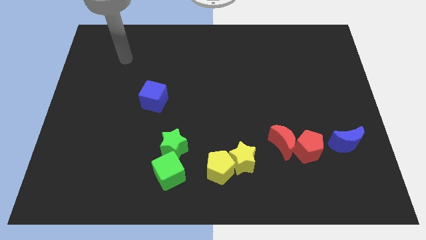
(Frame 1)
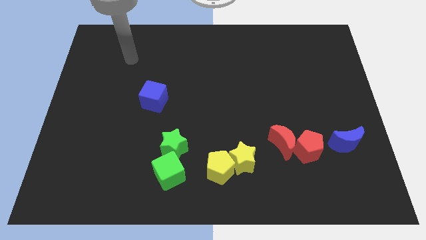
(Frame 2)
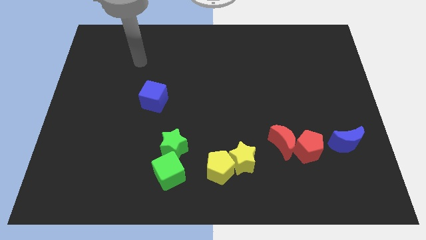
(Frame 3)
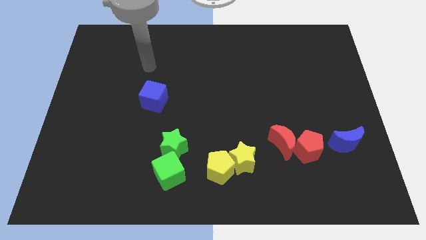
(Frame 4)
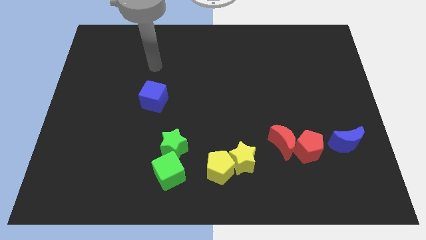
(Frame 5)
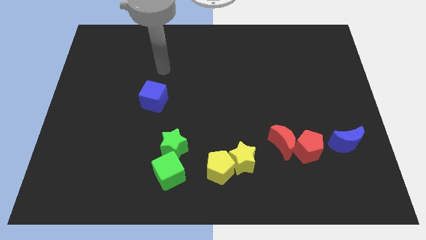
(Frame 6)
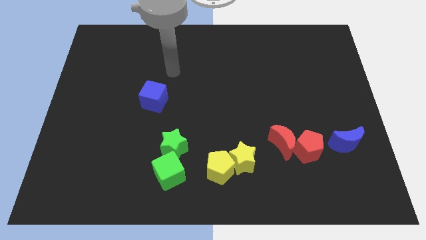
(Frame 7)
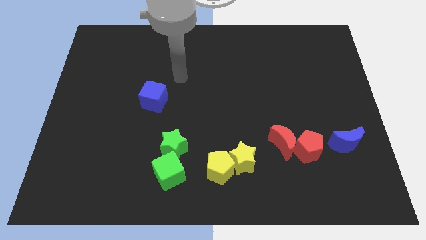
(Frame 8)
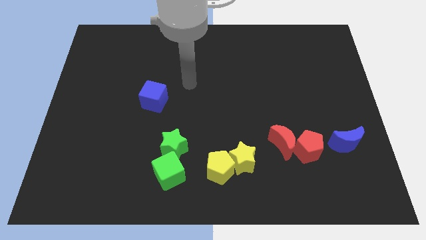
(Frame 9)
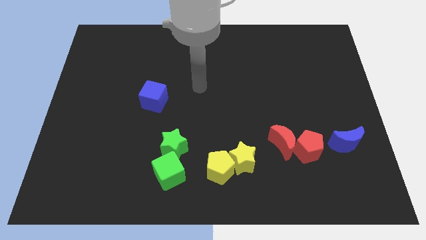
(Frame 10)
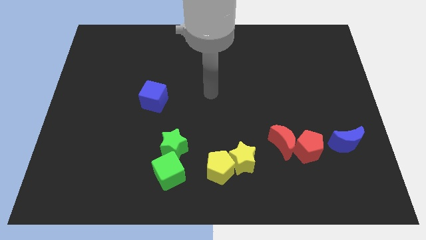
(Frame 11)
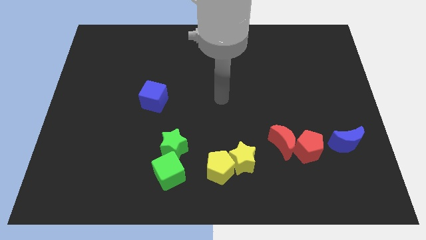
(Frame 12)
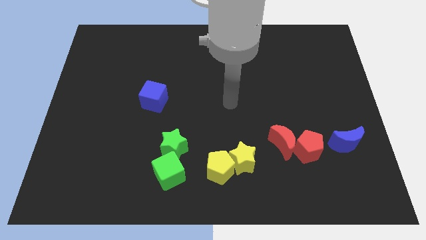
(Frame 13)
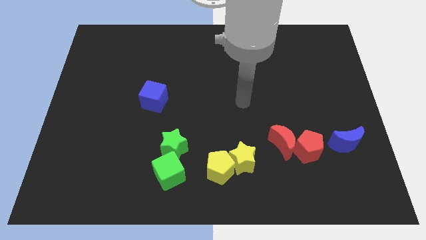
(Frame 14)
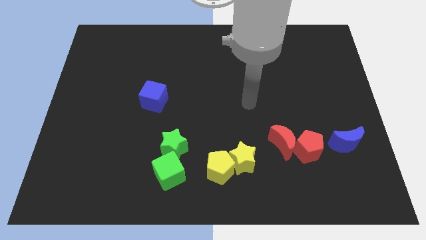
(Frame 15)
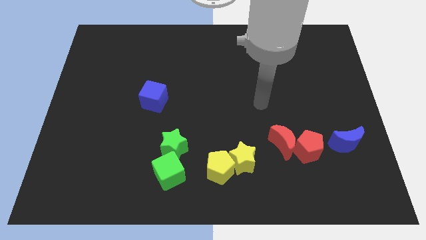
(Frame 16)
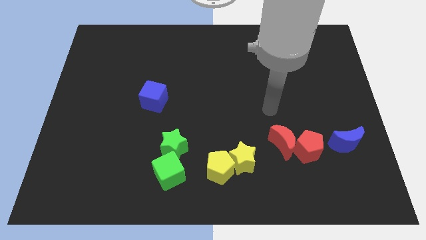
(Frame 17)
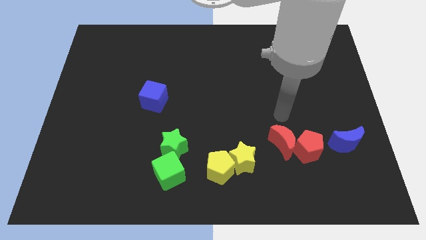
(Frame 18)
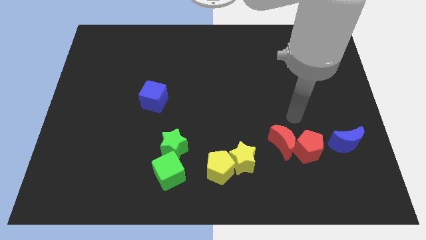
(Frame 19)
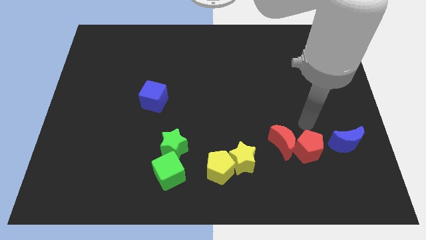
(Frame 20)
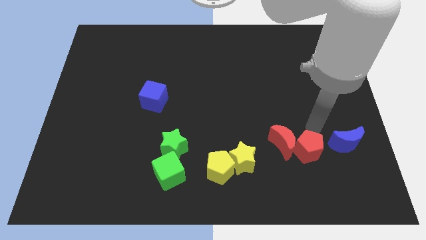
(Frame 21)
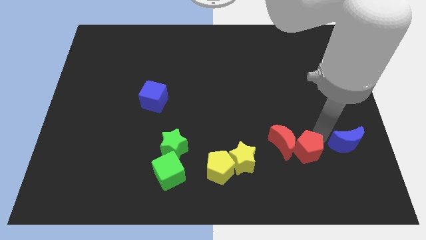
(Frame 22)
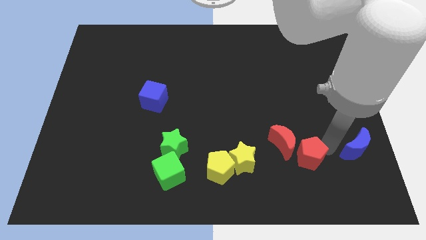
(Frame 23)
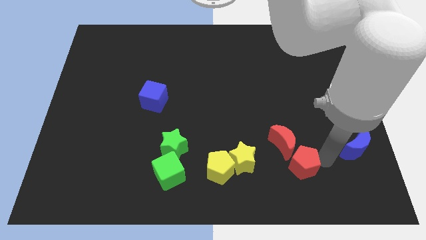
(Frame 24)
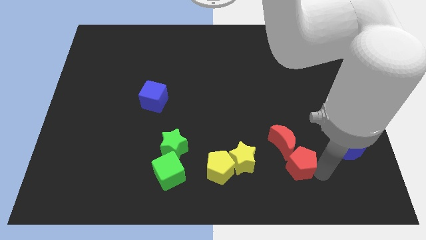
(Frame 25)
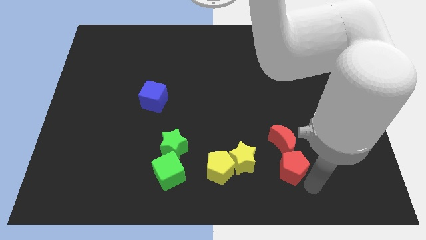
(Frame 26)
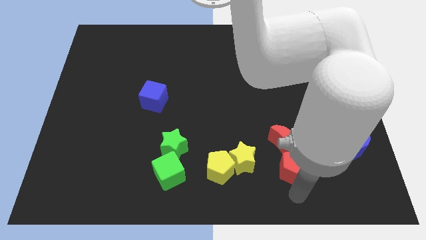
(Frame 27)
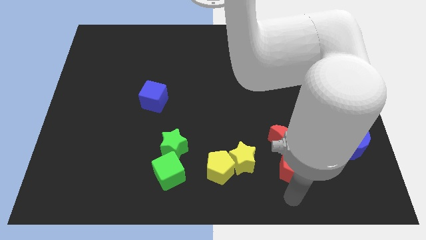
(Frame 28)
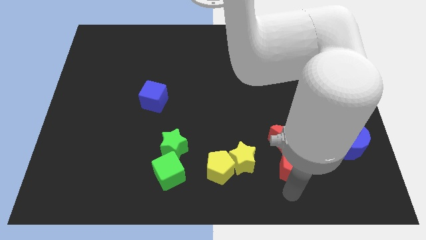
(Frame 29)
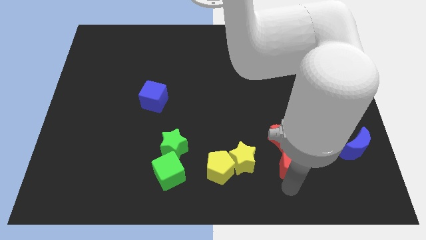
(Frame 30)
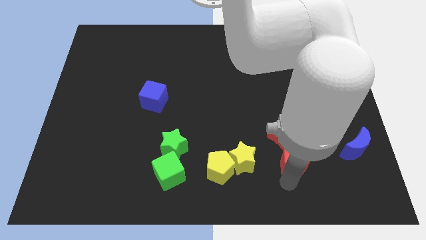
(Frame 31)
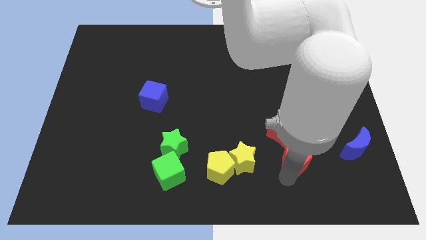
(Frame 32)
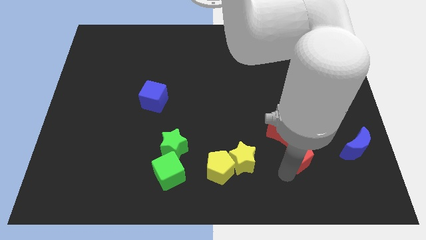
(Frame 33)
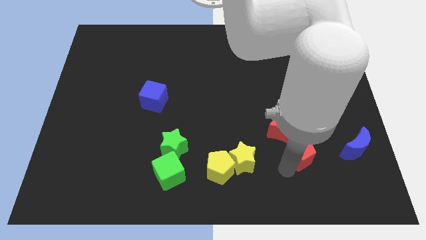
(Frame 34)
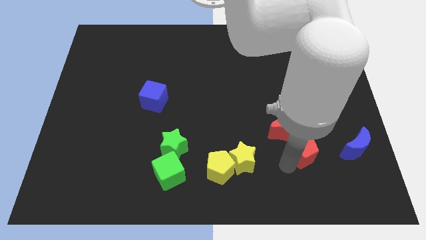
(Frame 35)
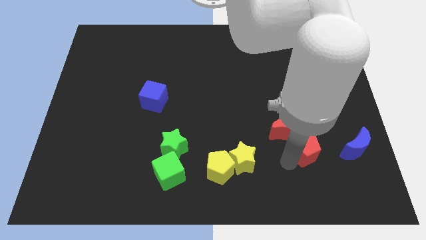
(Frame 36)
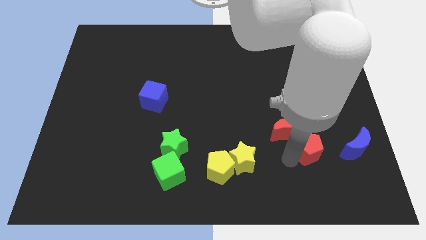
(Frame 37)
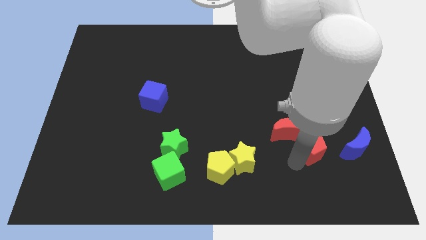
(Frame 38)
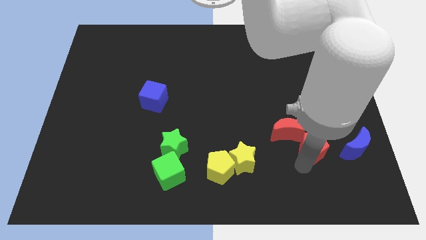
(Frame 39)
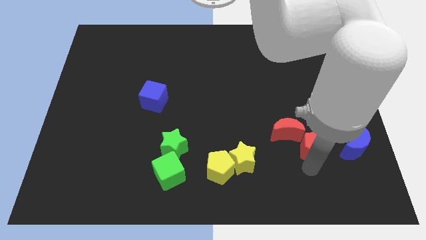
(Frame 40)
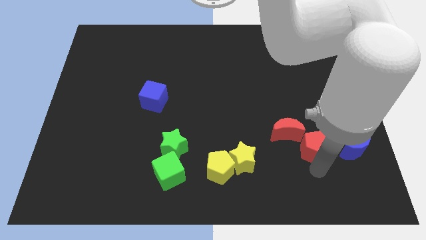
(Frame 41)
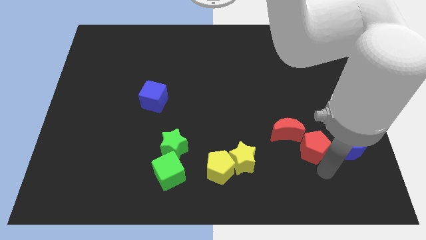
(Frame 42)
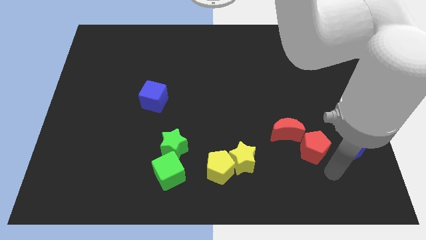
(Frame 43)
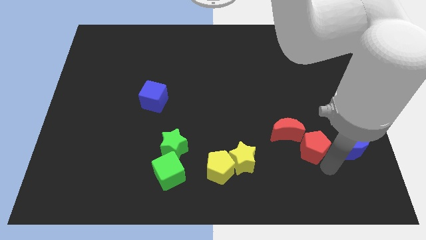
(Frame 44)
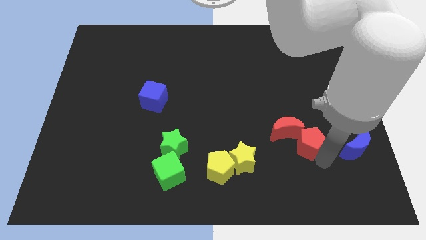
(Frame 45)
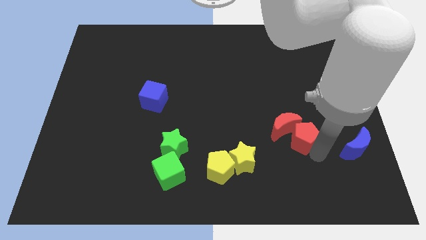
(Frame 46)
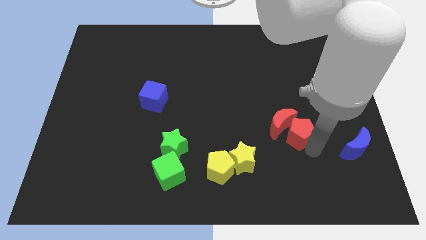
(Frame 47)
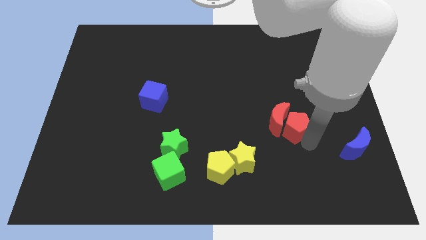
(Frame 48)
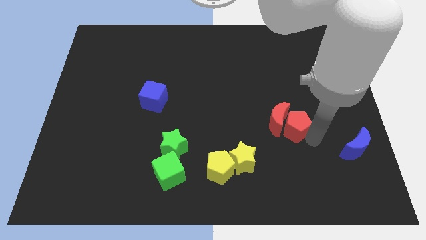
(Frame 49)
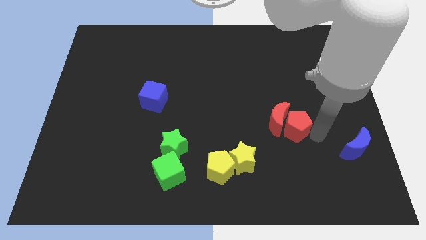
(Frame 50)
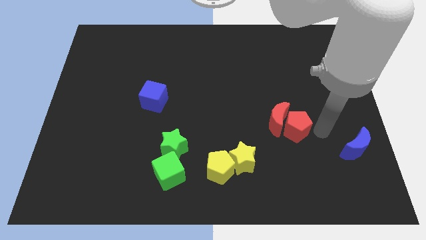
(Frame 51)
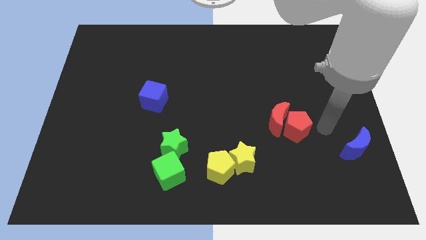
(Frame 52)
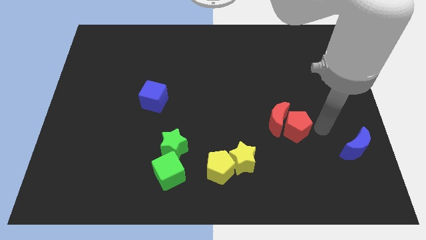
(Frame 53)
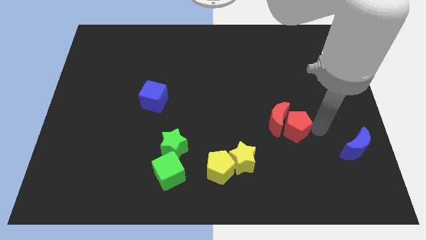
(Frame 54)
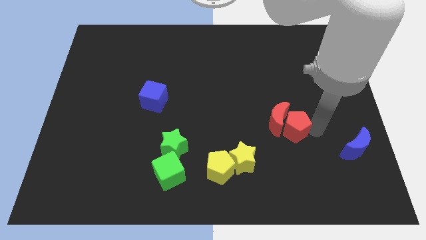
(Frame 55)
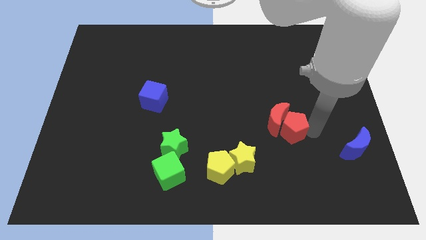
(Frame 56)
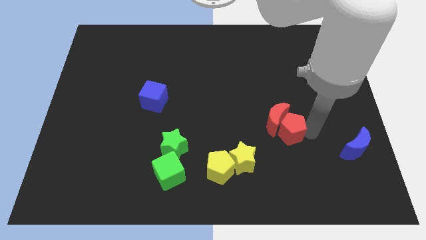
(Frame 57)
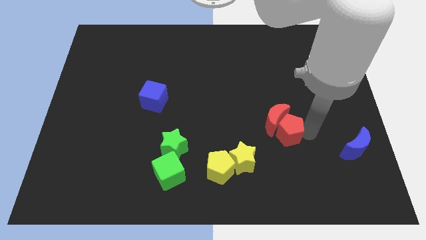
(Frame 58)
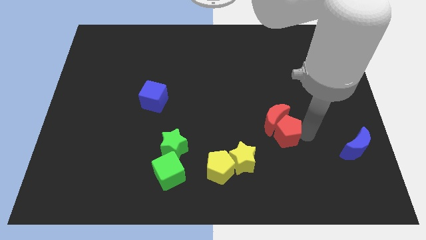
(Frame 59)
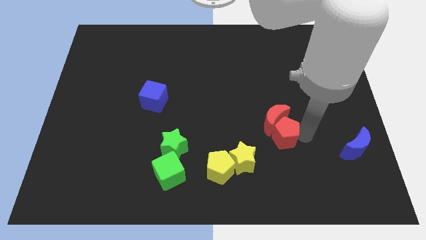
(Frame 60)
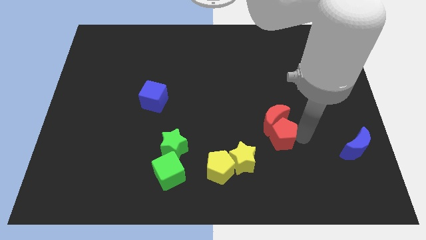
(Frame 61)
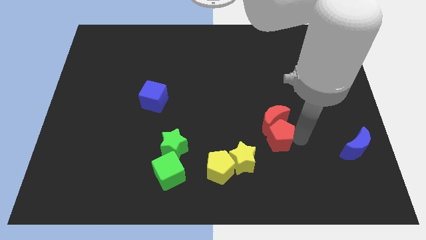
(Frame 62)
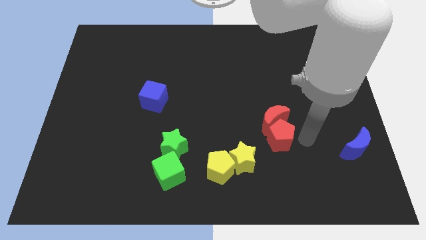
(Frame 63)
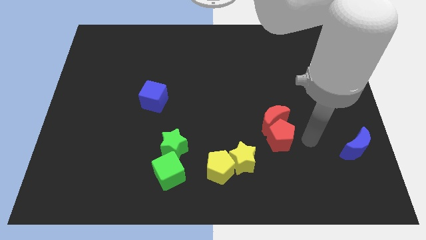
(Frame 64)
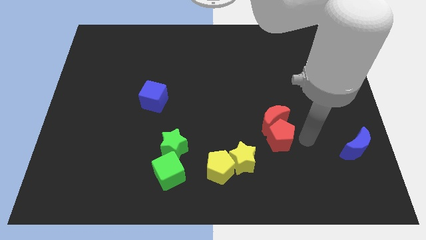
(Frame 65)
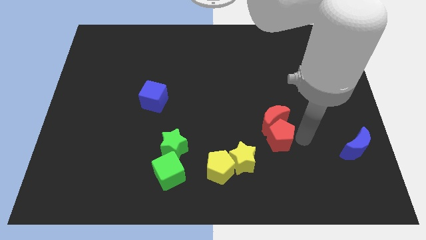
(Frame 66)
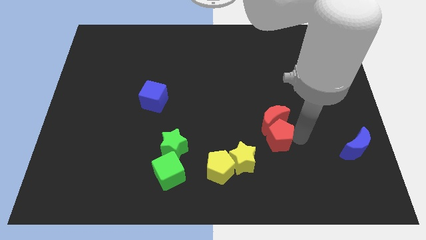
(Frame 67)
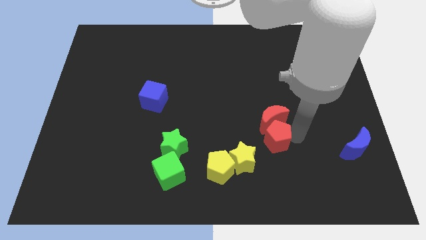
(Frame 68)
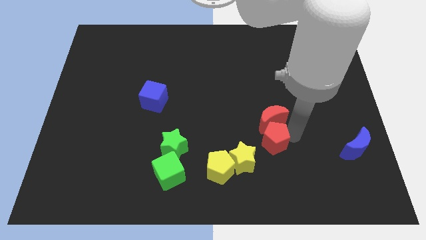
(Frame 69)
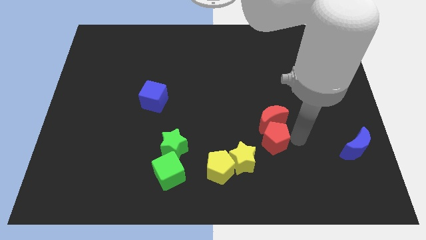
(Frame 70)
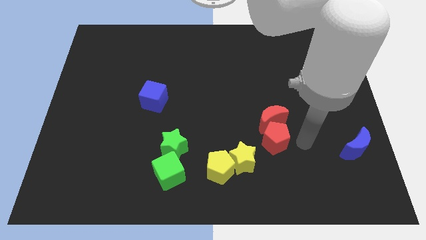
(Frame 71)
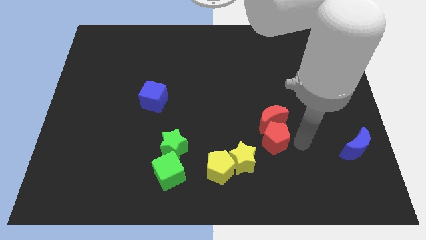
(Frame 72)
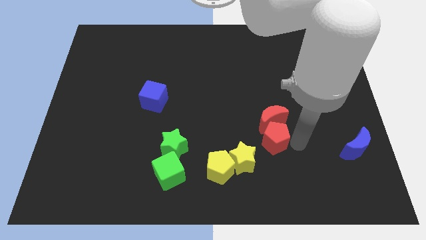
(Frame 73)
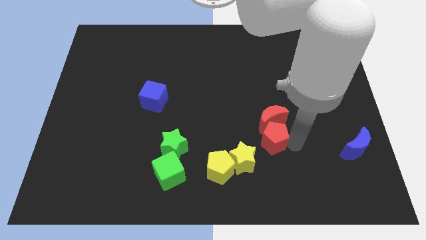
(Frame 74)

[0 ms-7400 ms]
push the red pentagon slightly left

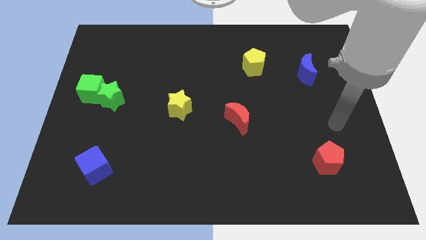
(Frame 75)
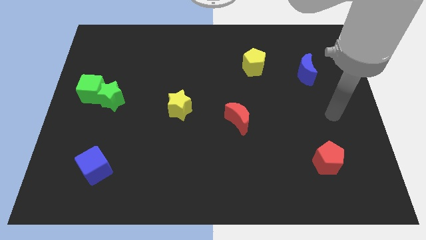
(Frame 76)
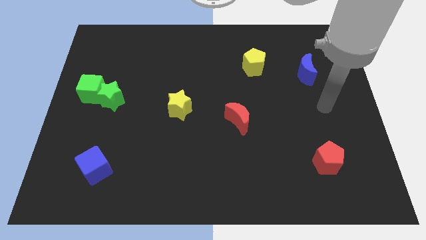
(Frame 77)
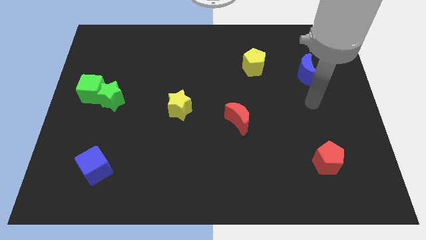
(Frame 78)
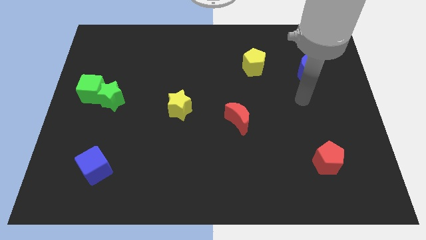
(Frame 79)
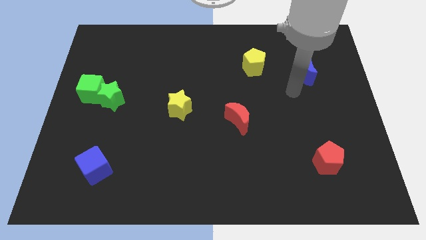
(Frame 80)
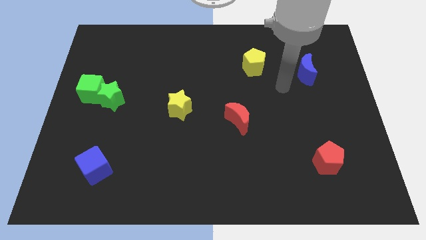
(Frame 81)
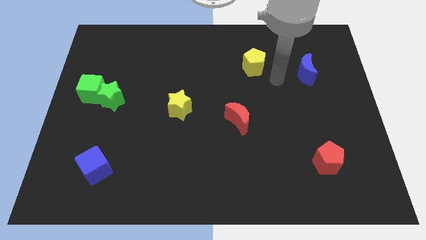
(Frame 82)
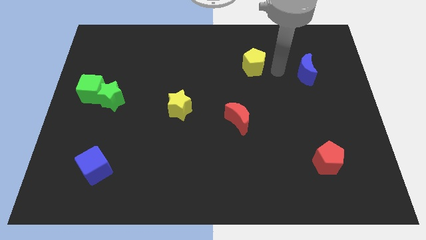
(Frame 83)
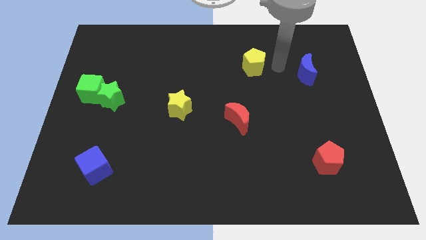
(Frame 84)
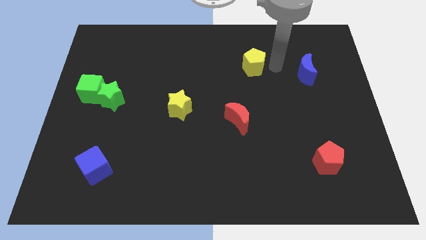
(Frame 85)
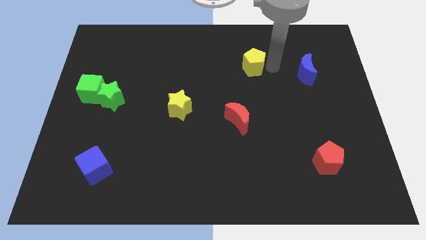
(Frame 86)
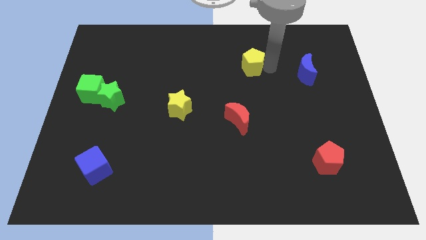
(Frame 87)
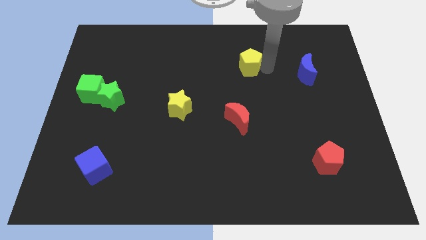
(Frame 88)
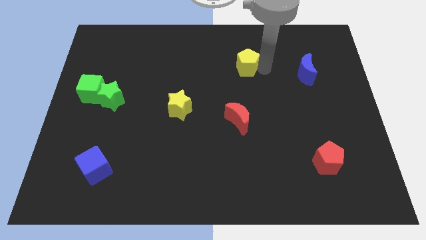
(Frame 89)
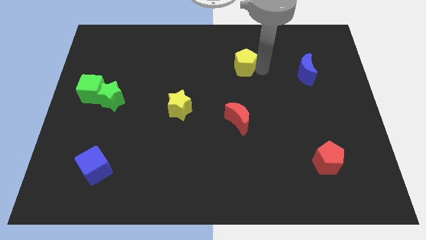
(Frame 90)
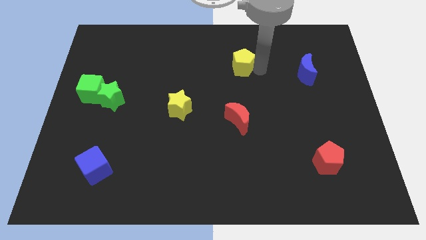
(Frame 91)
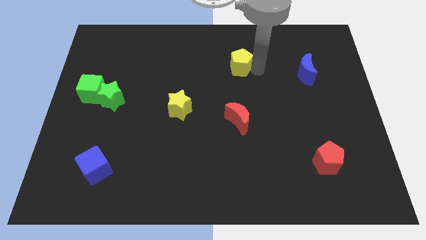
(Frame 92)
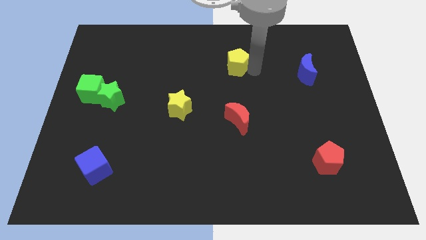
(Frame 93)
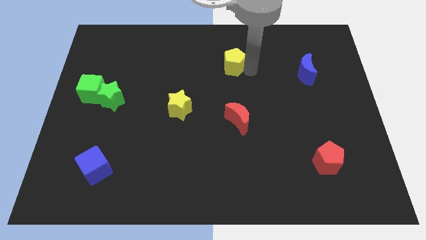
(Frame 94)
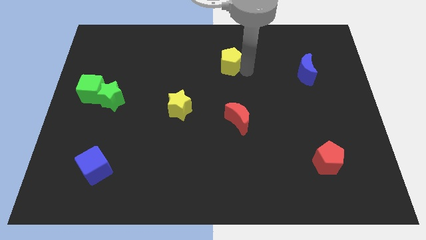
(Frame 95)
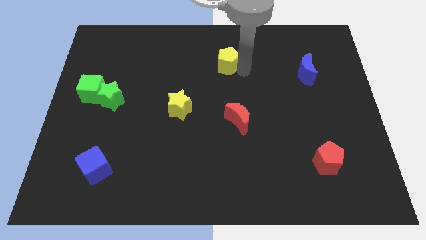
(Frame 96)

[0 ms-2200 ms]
move the yellow pentagon to the left a little
